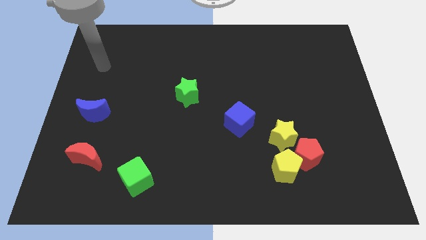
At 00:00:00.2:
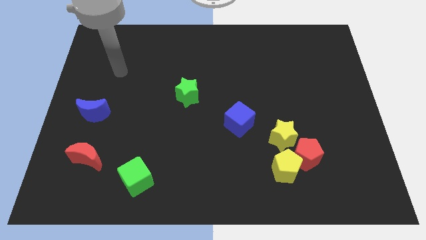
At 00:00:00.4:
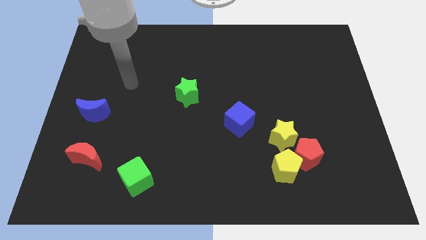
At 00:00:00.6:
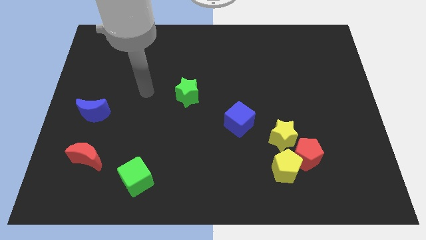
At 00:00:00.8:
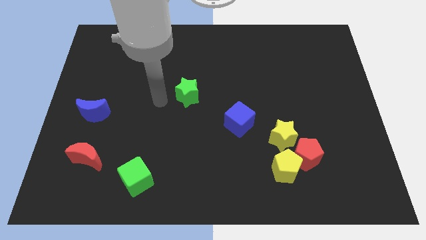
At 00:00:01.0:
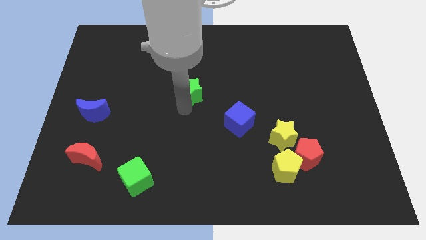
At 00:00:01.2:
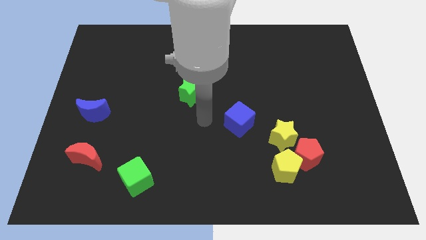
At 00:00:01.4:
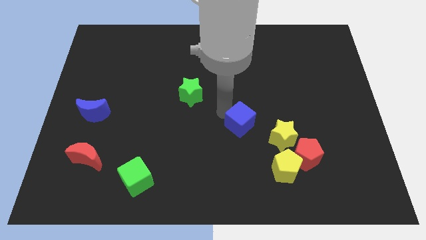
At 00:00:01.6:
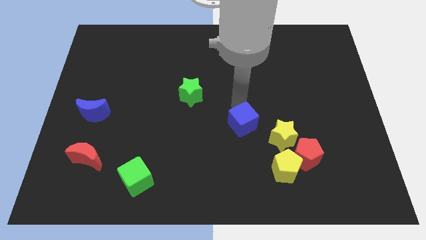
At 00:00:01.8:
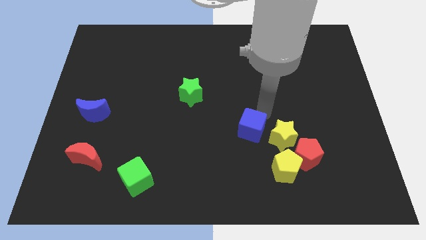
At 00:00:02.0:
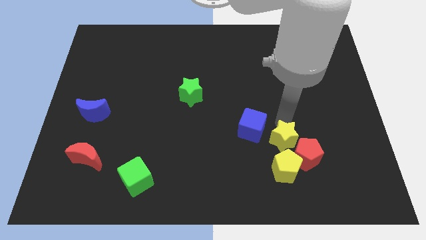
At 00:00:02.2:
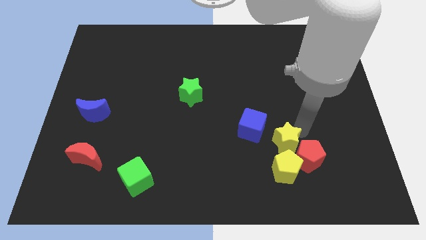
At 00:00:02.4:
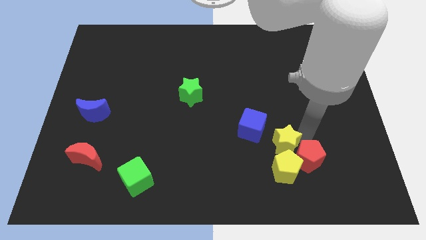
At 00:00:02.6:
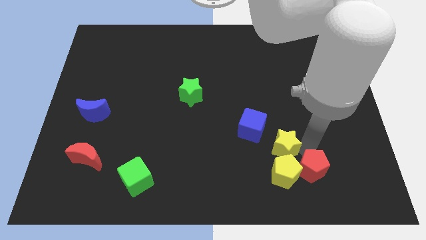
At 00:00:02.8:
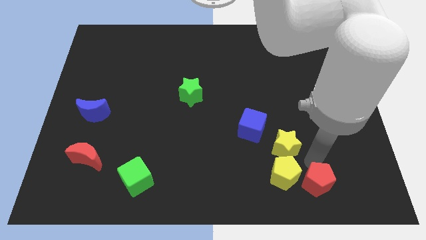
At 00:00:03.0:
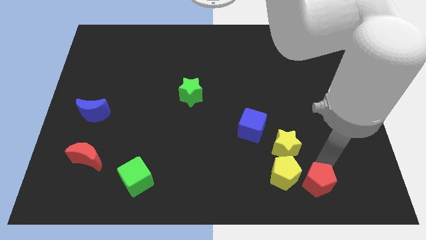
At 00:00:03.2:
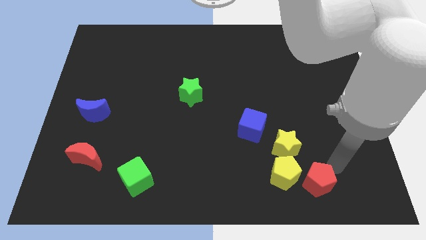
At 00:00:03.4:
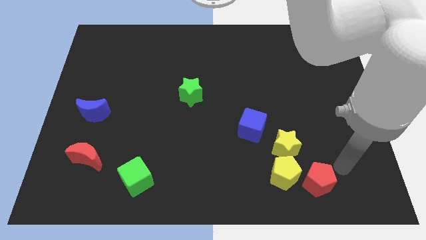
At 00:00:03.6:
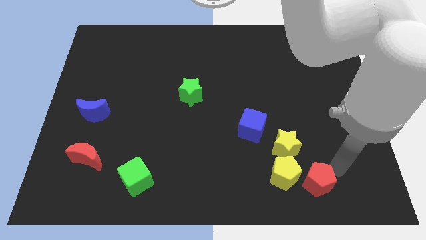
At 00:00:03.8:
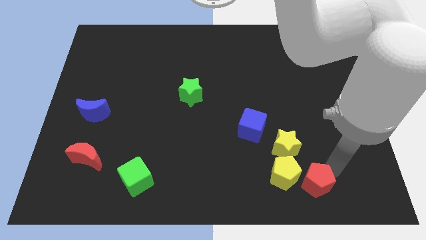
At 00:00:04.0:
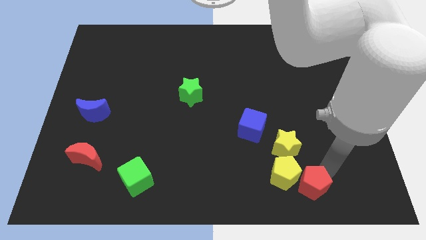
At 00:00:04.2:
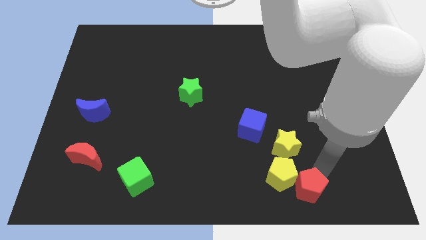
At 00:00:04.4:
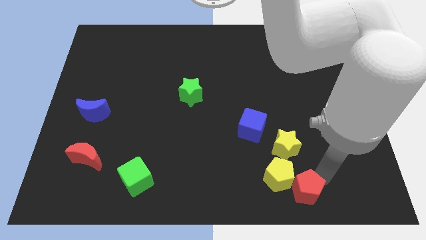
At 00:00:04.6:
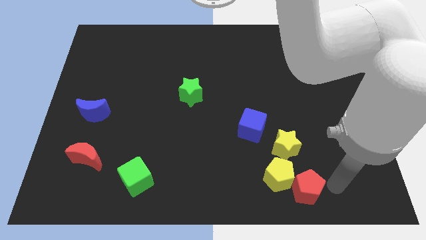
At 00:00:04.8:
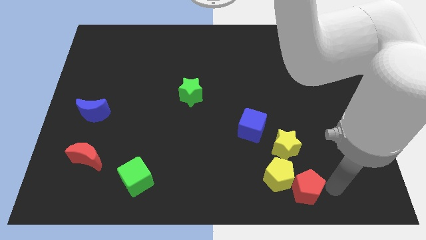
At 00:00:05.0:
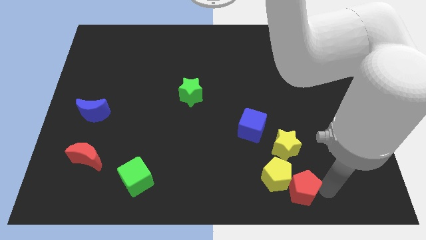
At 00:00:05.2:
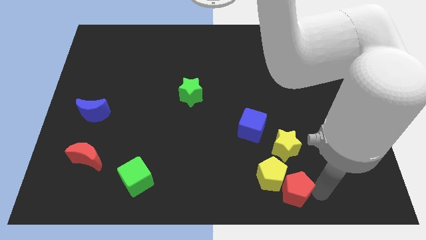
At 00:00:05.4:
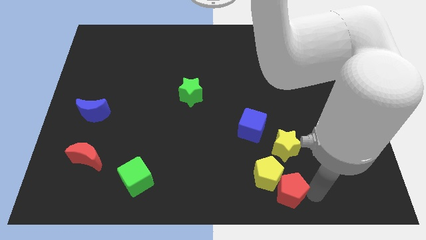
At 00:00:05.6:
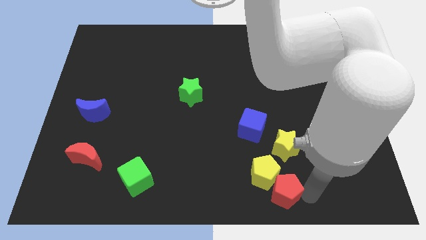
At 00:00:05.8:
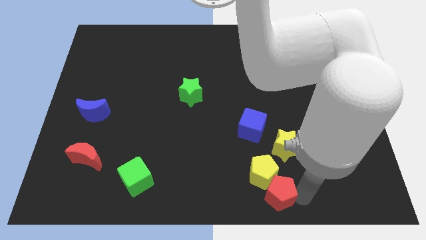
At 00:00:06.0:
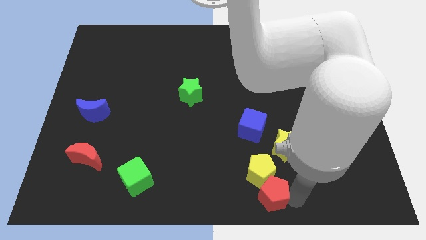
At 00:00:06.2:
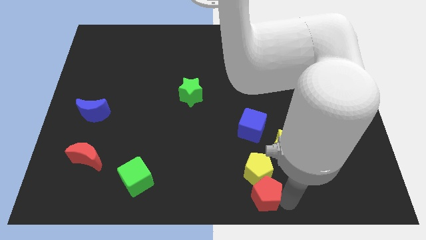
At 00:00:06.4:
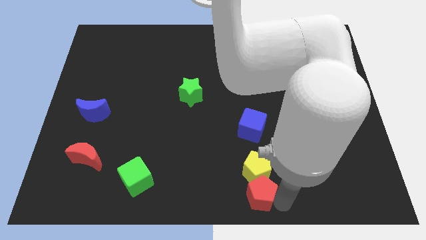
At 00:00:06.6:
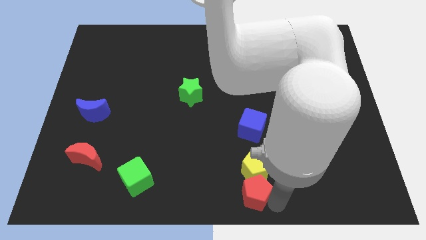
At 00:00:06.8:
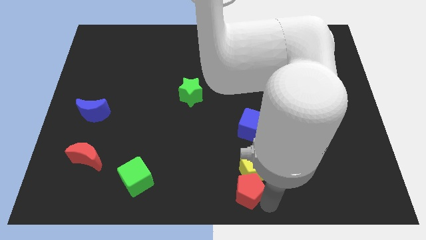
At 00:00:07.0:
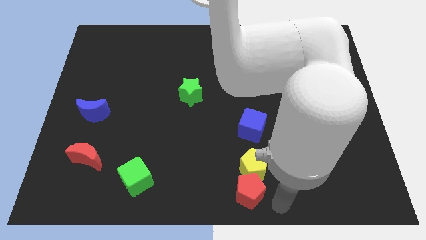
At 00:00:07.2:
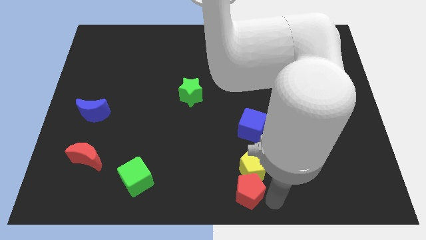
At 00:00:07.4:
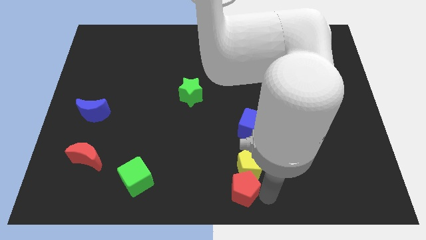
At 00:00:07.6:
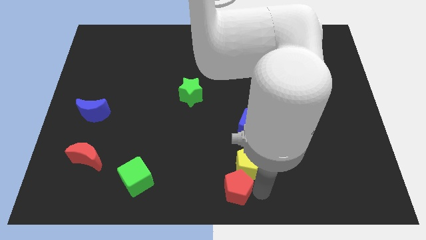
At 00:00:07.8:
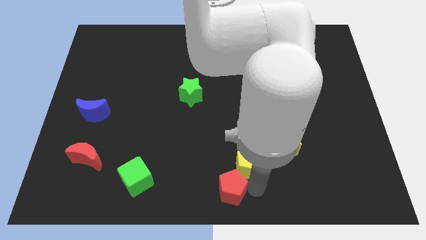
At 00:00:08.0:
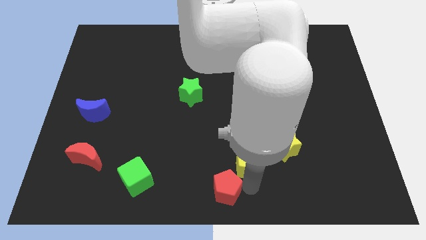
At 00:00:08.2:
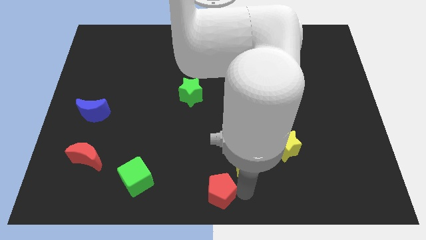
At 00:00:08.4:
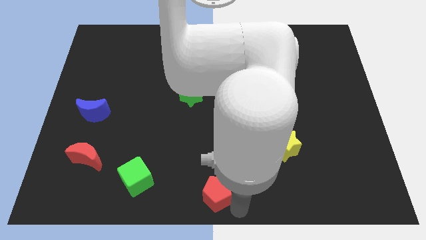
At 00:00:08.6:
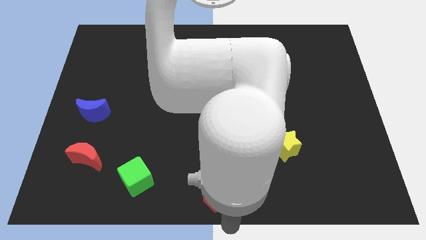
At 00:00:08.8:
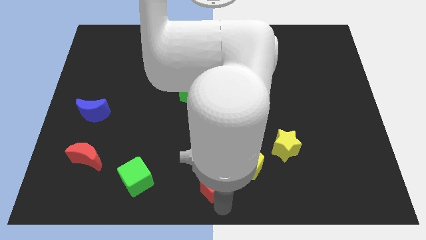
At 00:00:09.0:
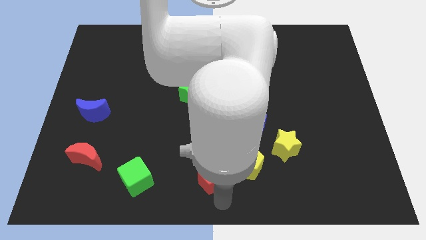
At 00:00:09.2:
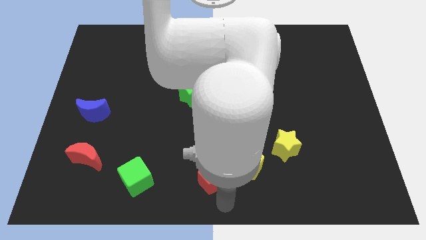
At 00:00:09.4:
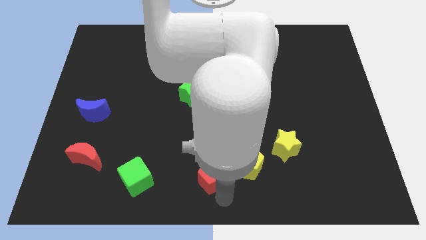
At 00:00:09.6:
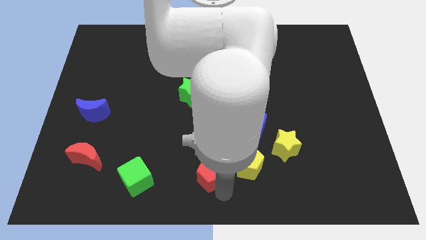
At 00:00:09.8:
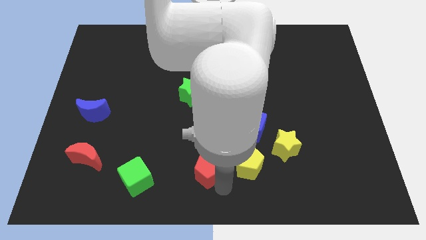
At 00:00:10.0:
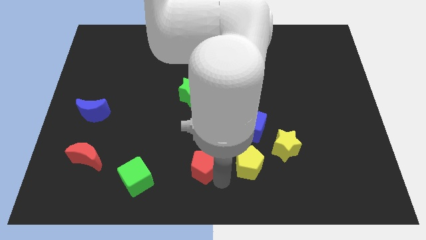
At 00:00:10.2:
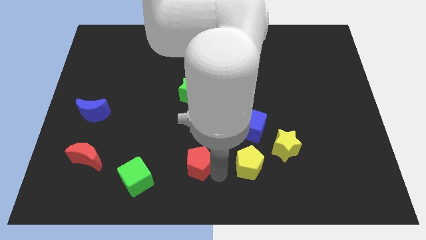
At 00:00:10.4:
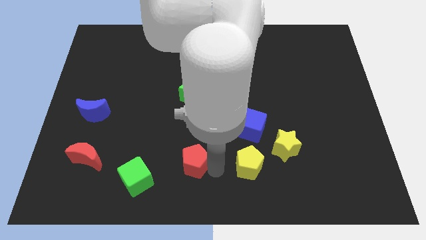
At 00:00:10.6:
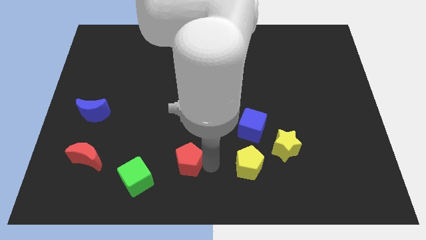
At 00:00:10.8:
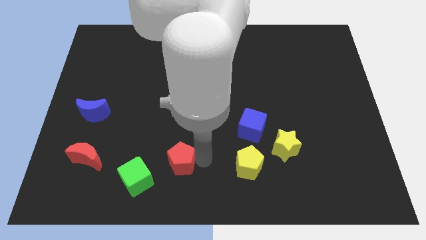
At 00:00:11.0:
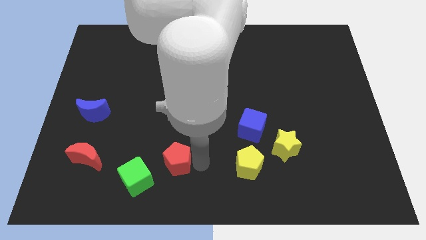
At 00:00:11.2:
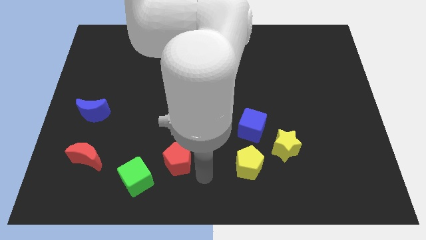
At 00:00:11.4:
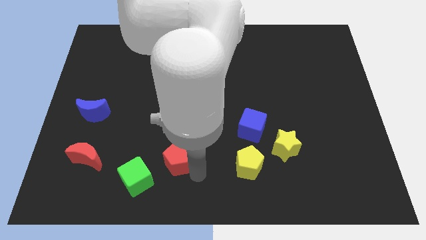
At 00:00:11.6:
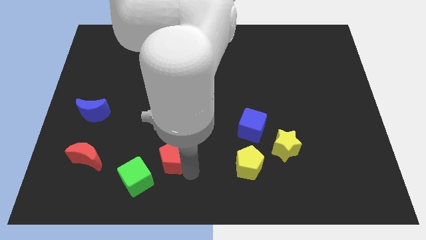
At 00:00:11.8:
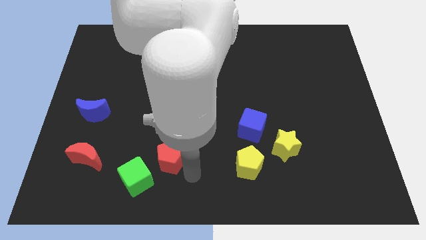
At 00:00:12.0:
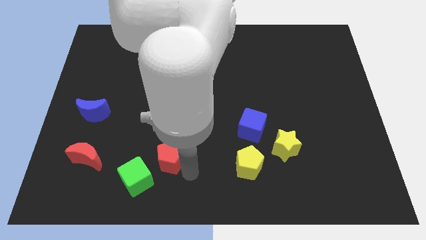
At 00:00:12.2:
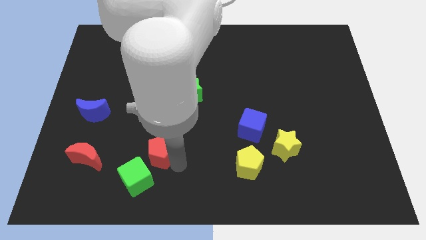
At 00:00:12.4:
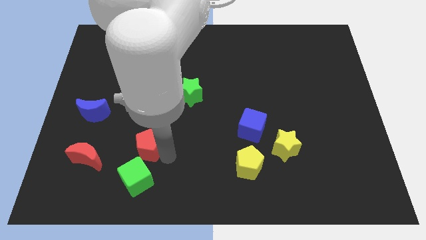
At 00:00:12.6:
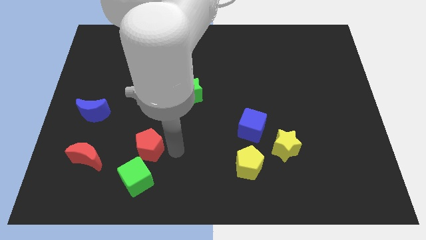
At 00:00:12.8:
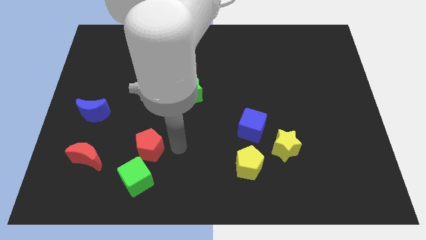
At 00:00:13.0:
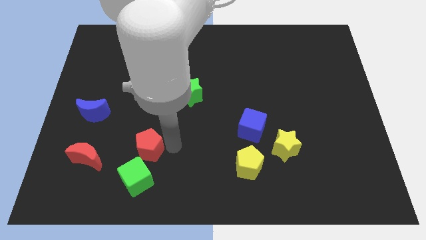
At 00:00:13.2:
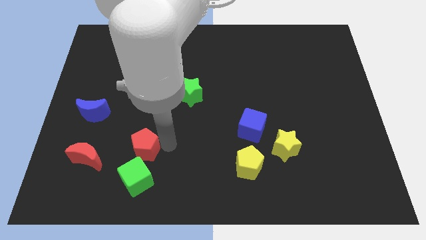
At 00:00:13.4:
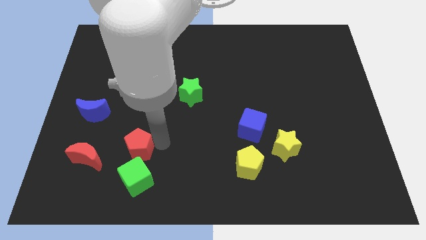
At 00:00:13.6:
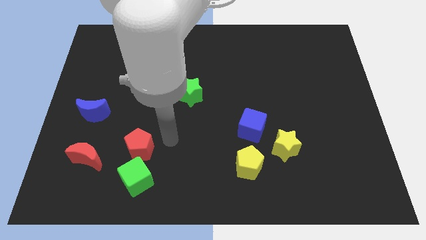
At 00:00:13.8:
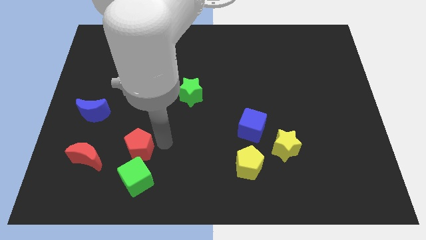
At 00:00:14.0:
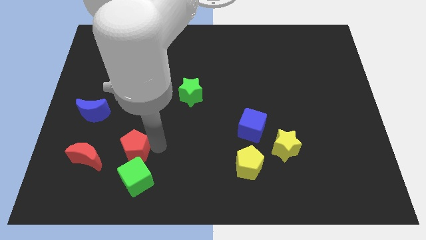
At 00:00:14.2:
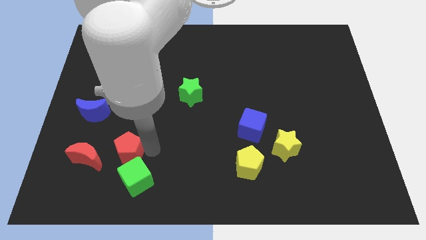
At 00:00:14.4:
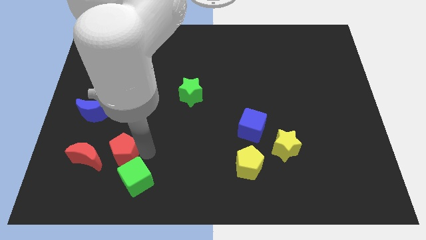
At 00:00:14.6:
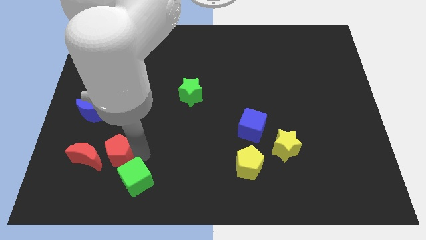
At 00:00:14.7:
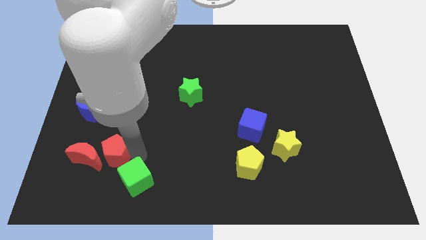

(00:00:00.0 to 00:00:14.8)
slide the red pentagon next to the red moon
